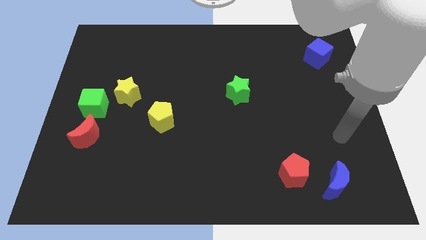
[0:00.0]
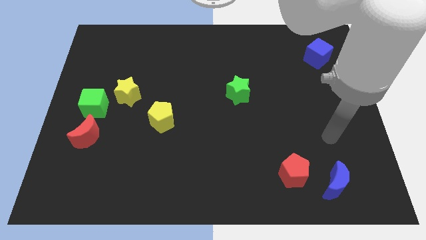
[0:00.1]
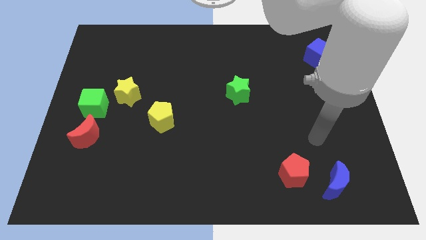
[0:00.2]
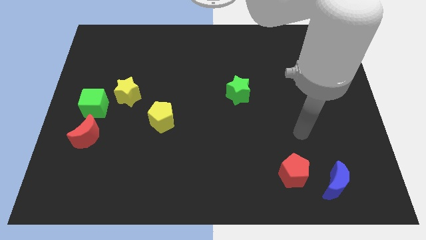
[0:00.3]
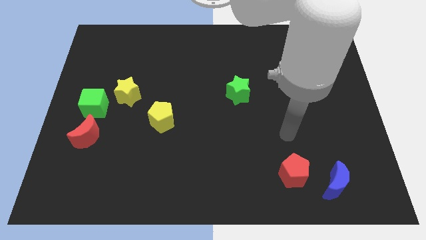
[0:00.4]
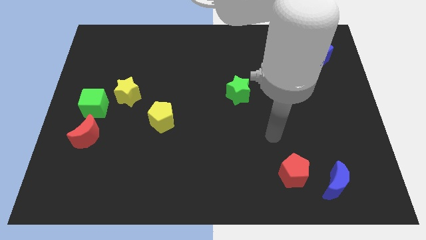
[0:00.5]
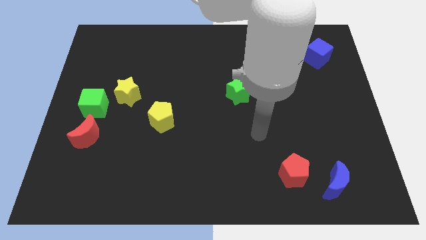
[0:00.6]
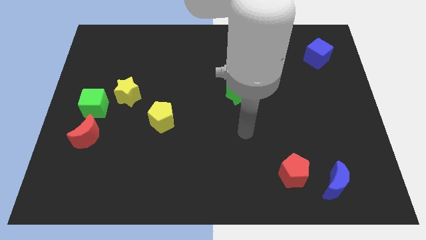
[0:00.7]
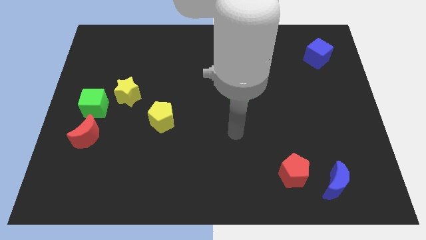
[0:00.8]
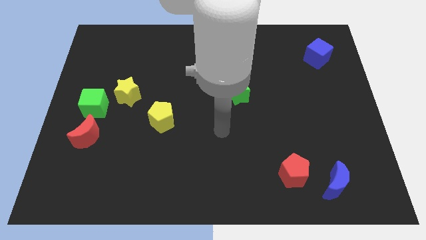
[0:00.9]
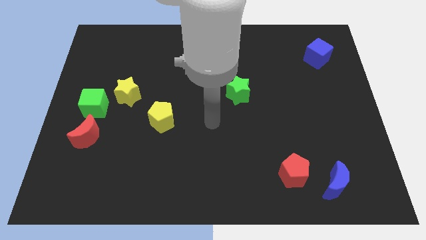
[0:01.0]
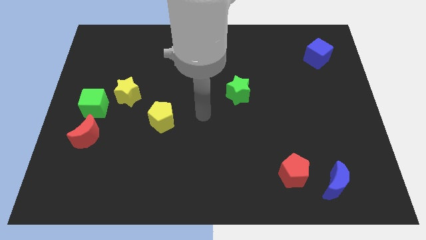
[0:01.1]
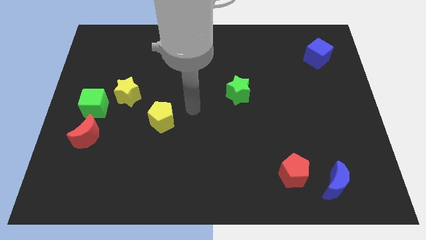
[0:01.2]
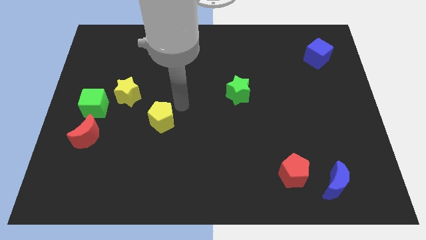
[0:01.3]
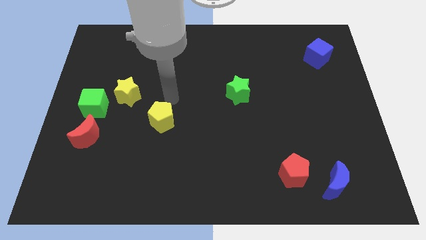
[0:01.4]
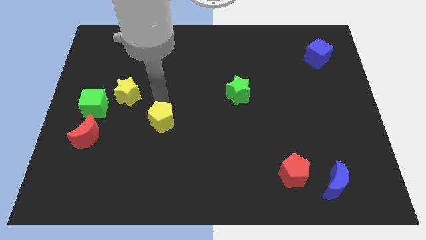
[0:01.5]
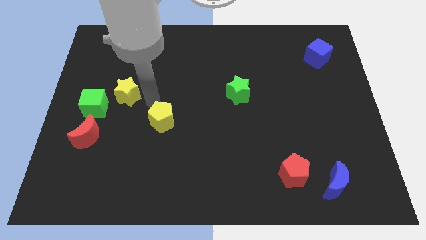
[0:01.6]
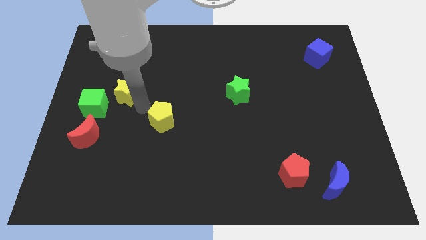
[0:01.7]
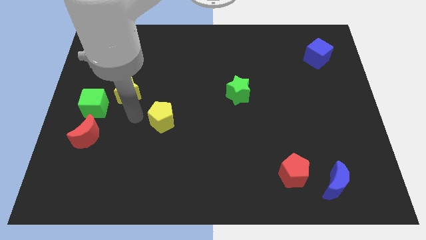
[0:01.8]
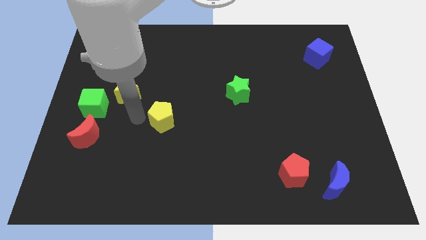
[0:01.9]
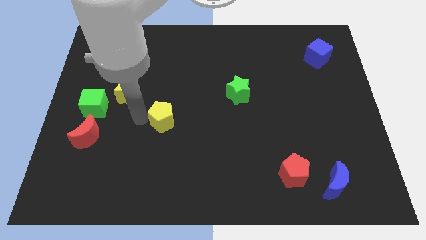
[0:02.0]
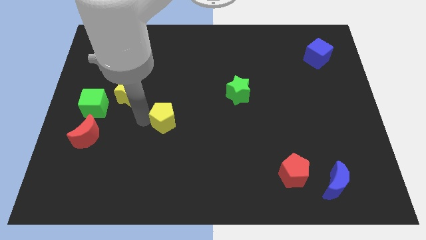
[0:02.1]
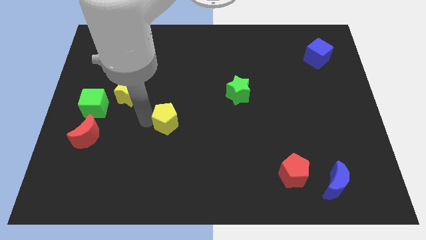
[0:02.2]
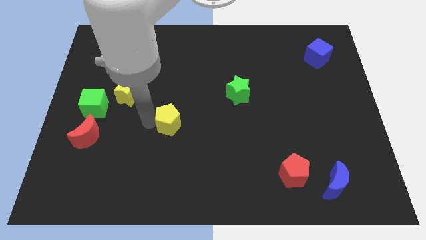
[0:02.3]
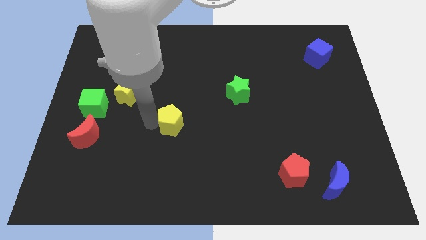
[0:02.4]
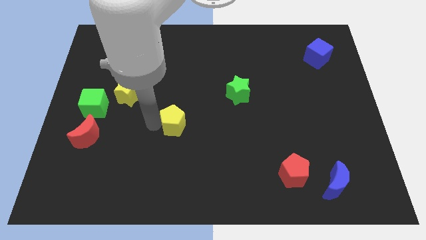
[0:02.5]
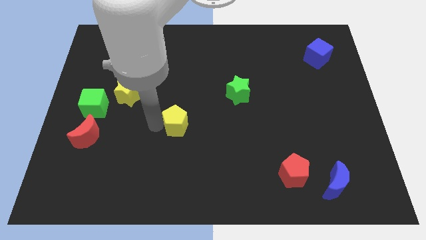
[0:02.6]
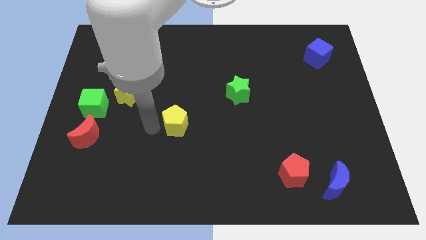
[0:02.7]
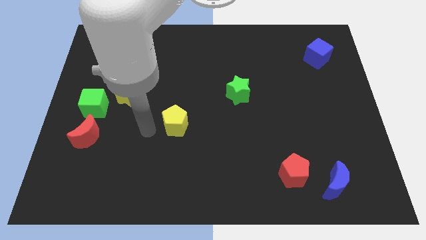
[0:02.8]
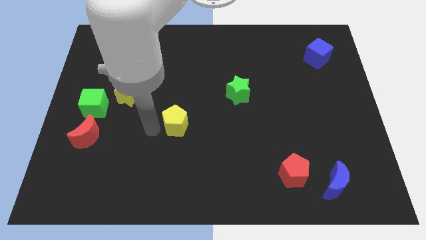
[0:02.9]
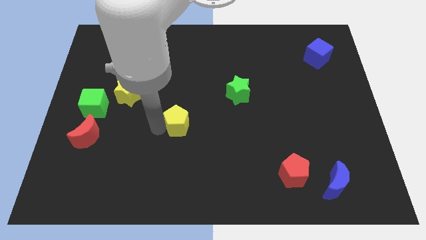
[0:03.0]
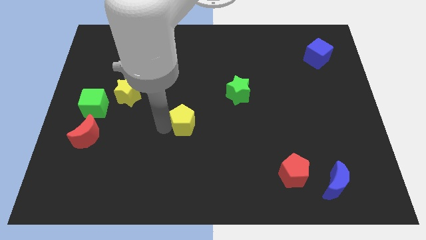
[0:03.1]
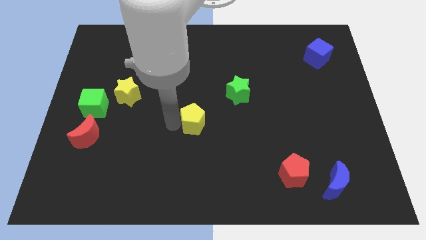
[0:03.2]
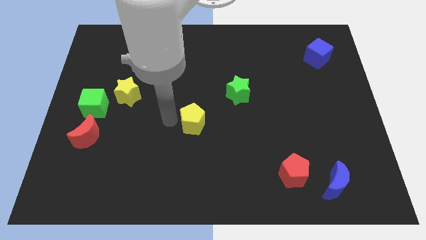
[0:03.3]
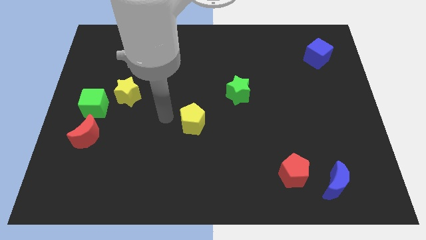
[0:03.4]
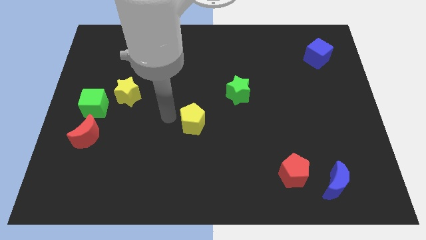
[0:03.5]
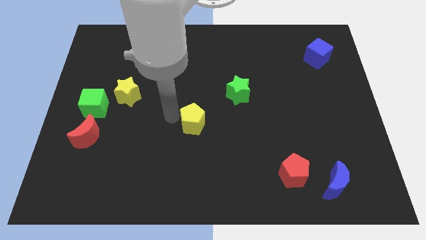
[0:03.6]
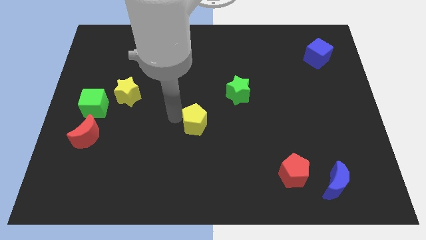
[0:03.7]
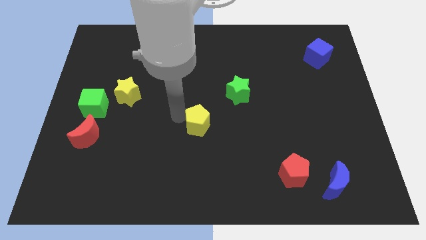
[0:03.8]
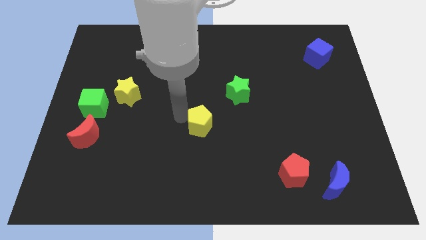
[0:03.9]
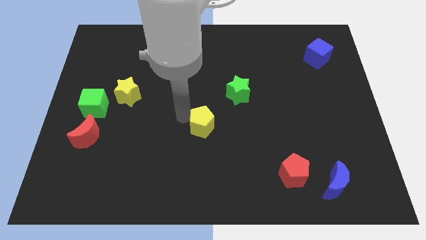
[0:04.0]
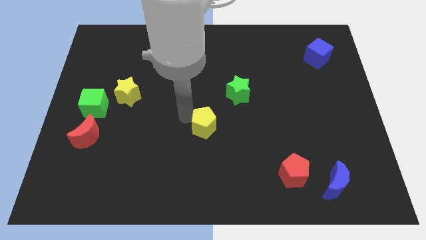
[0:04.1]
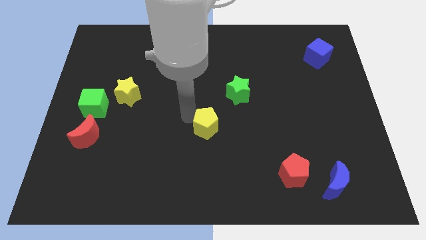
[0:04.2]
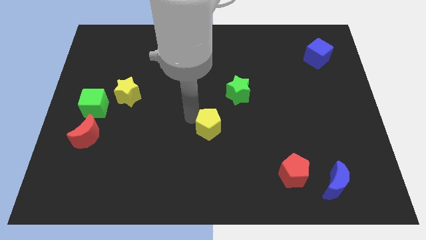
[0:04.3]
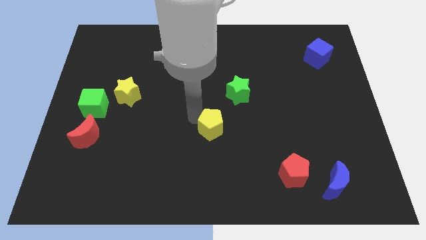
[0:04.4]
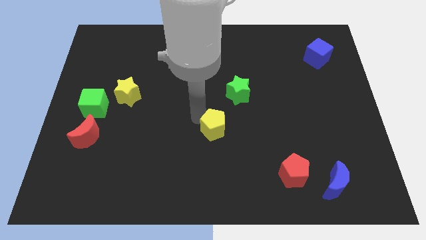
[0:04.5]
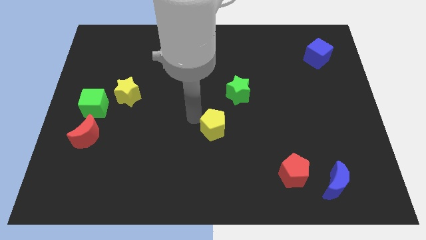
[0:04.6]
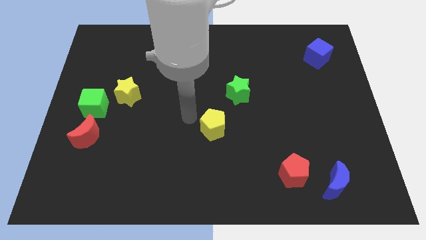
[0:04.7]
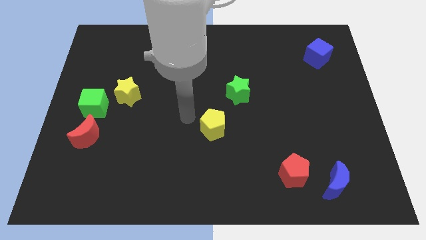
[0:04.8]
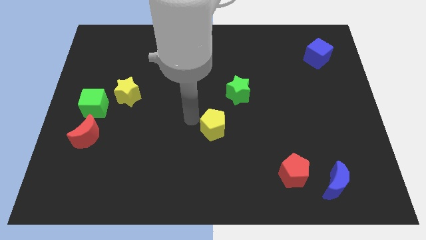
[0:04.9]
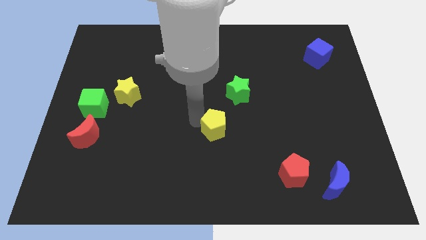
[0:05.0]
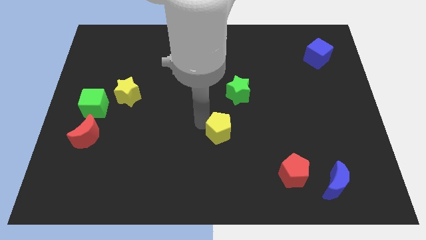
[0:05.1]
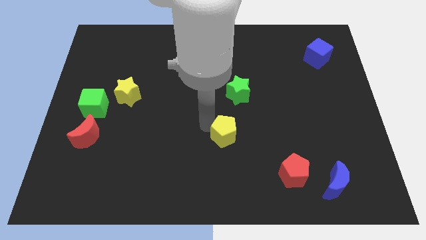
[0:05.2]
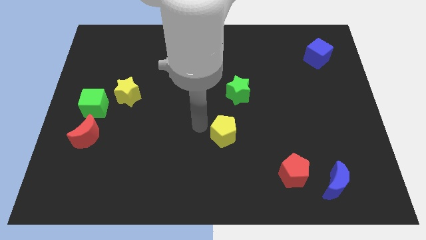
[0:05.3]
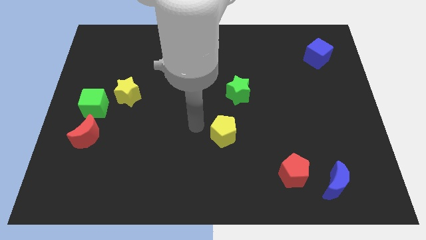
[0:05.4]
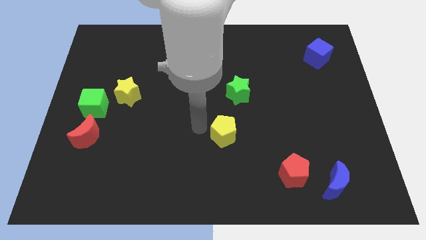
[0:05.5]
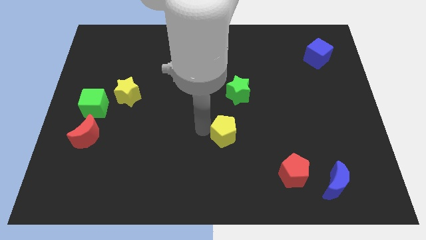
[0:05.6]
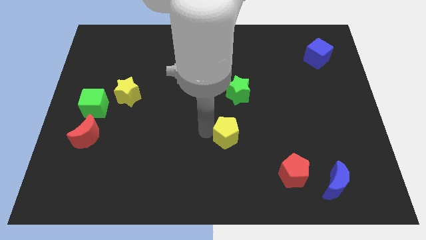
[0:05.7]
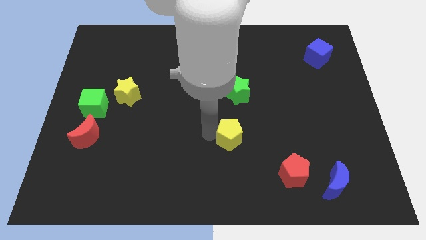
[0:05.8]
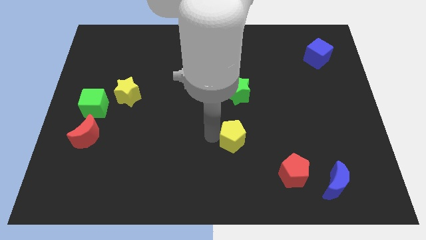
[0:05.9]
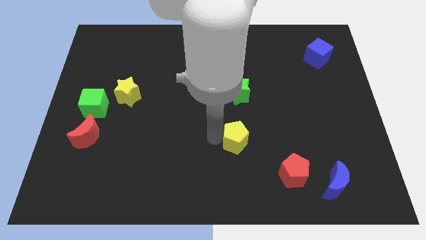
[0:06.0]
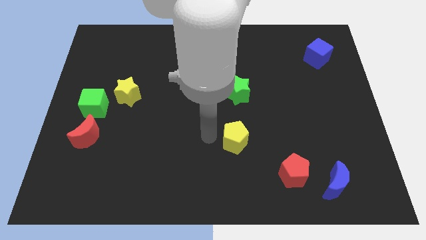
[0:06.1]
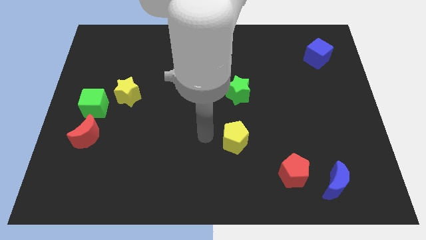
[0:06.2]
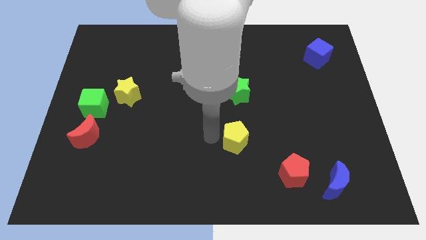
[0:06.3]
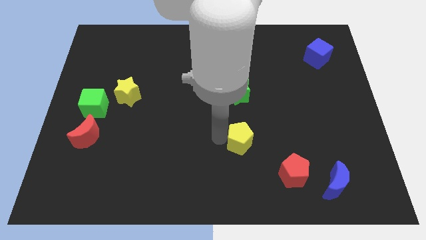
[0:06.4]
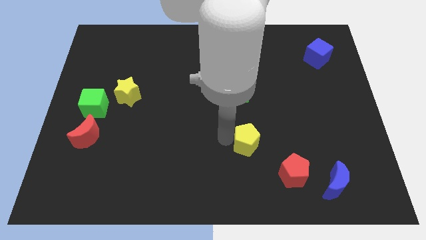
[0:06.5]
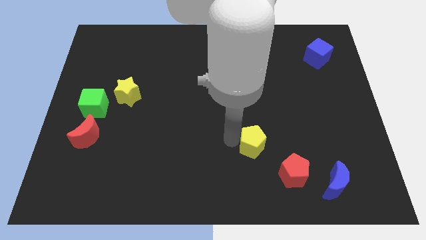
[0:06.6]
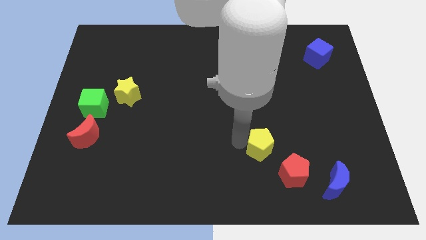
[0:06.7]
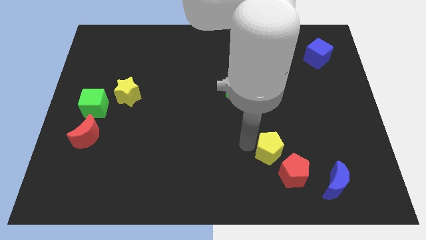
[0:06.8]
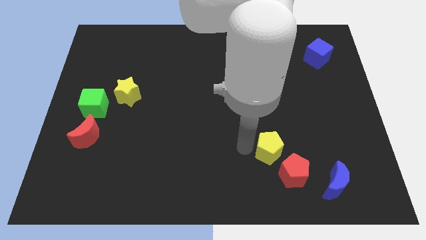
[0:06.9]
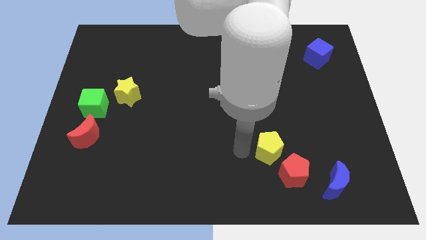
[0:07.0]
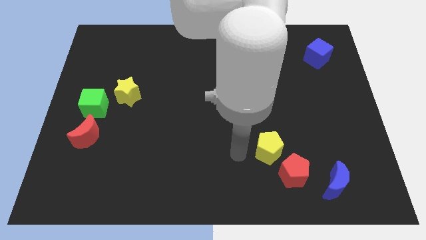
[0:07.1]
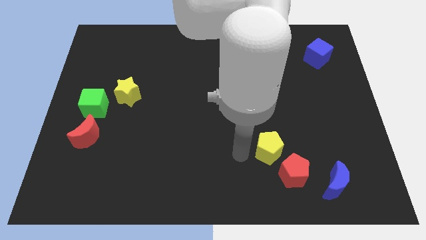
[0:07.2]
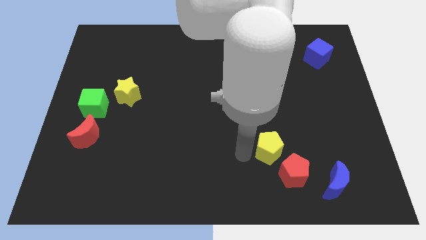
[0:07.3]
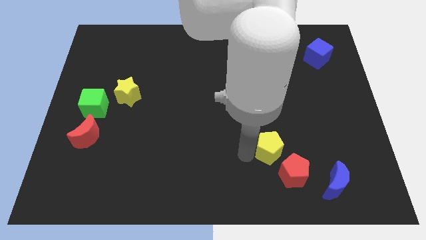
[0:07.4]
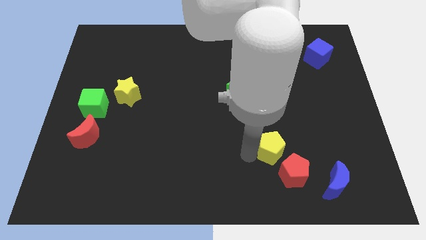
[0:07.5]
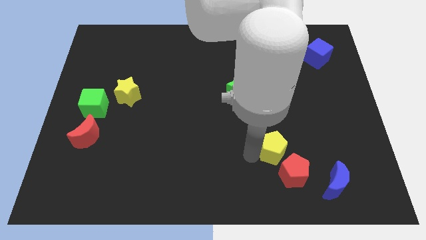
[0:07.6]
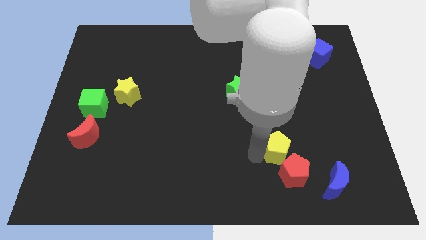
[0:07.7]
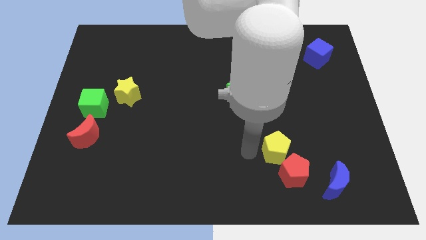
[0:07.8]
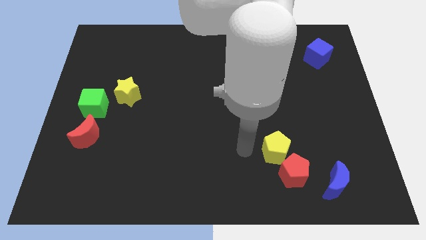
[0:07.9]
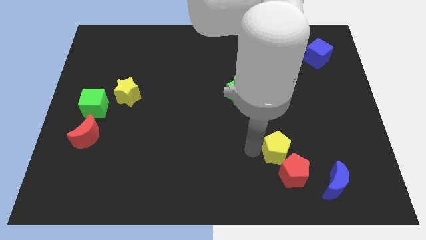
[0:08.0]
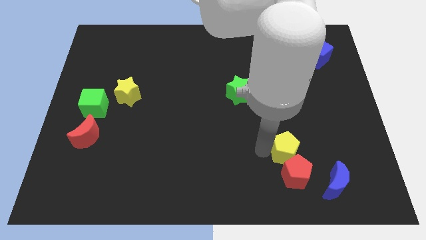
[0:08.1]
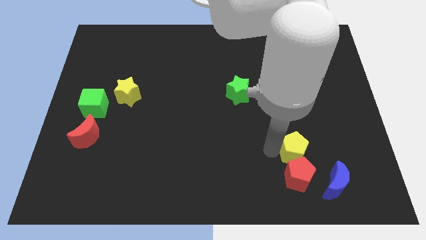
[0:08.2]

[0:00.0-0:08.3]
move the yellow pentagon to the top right side of the red pentagon
